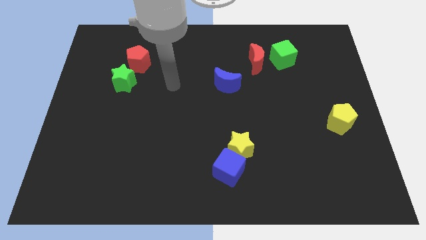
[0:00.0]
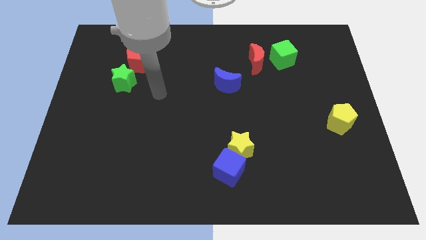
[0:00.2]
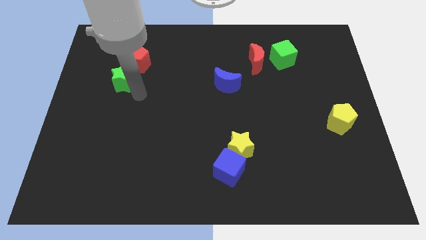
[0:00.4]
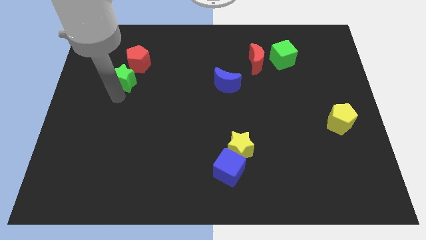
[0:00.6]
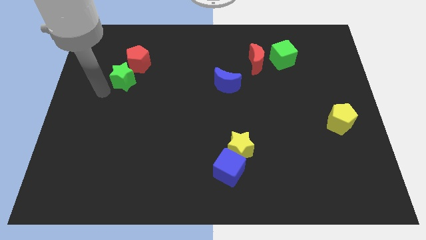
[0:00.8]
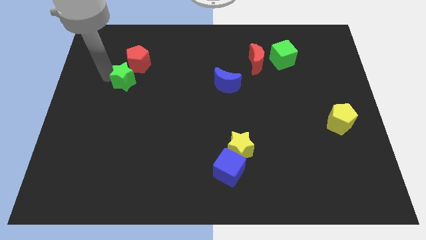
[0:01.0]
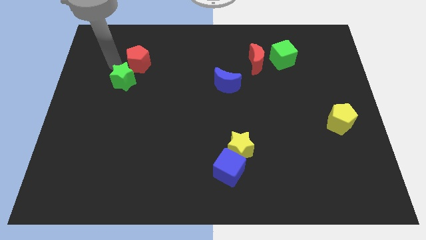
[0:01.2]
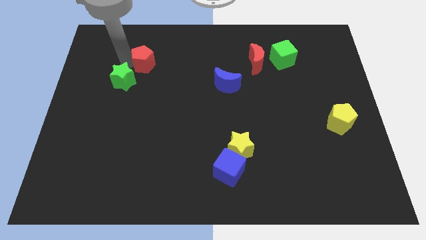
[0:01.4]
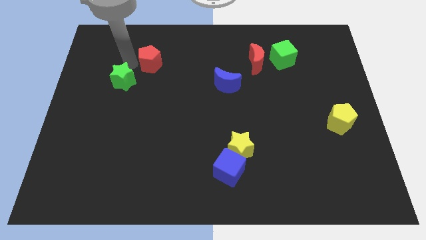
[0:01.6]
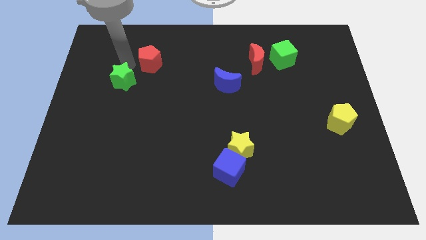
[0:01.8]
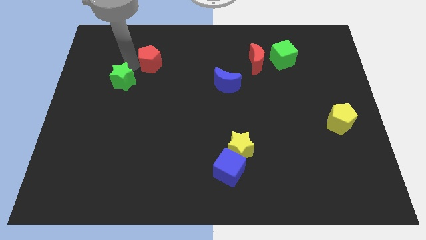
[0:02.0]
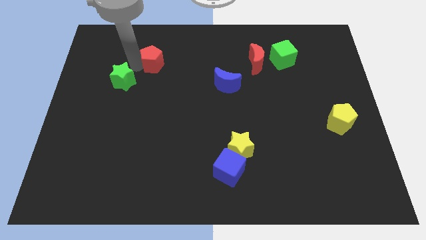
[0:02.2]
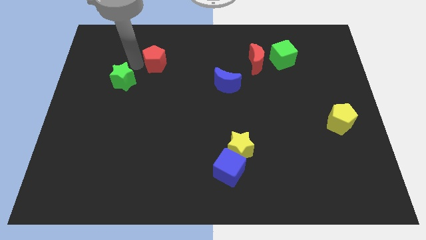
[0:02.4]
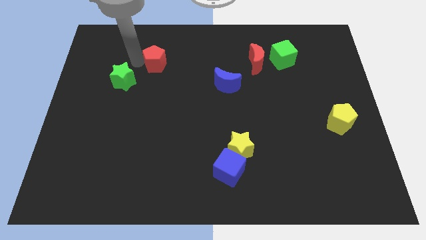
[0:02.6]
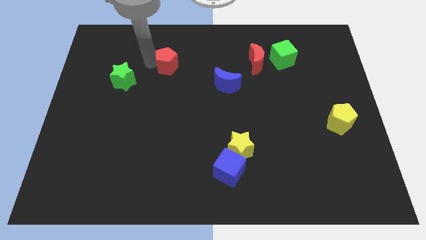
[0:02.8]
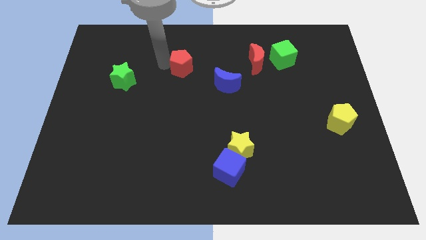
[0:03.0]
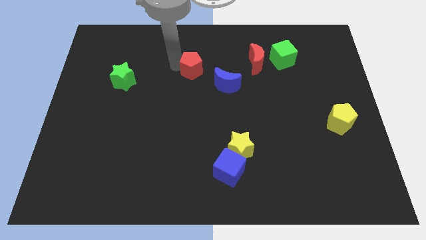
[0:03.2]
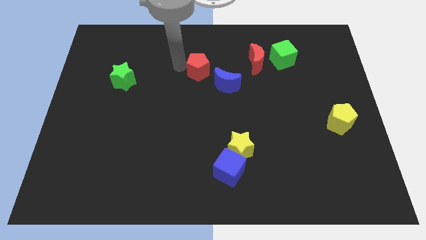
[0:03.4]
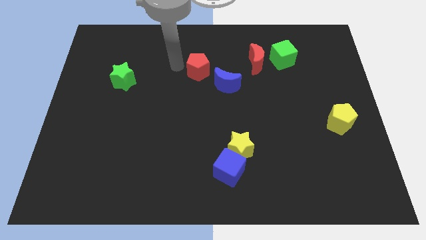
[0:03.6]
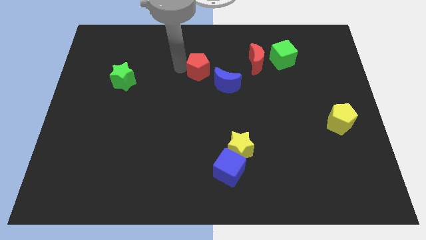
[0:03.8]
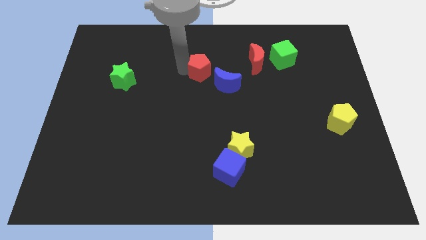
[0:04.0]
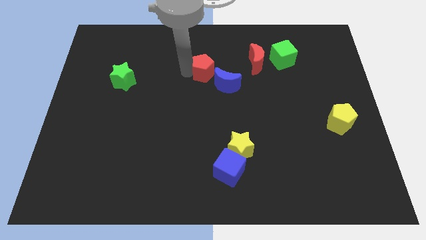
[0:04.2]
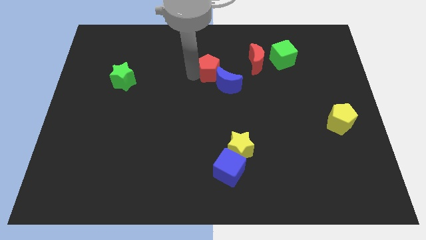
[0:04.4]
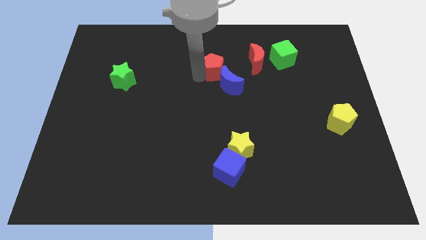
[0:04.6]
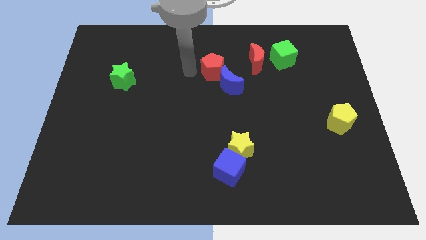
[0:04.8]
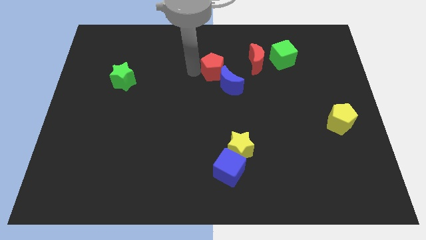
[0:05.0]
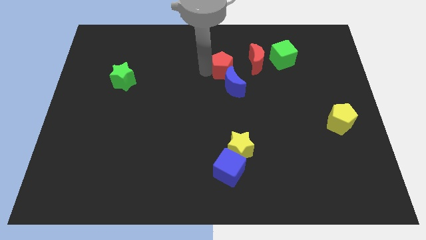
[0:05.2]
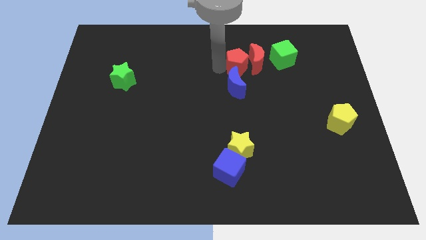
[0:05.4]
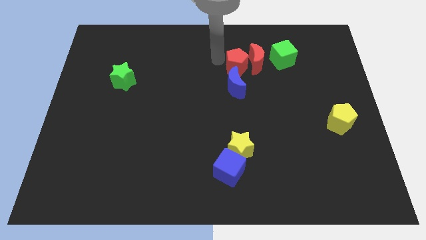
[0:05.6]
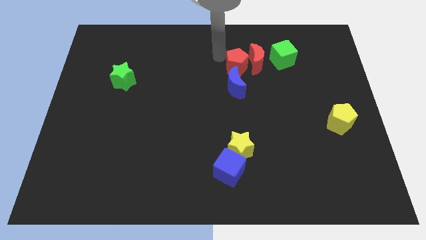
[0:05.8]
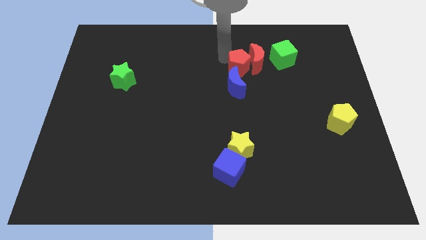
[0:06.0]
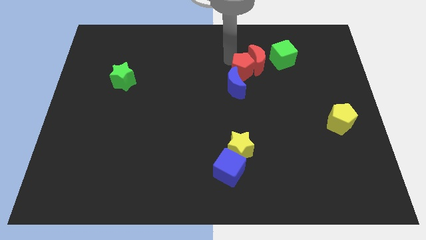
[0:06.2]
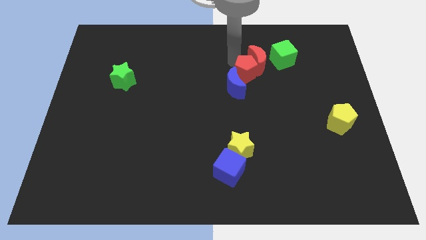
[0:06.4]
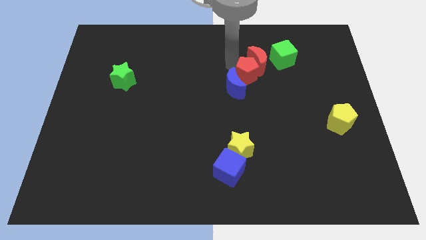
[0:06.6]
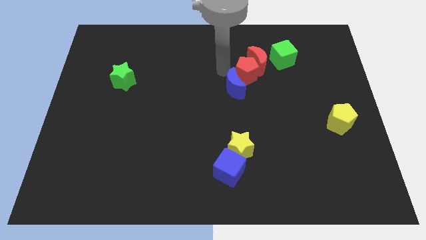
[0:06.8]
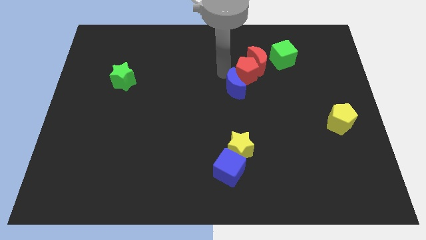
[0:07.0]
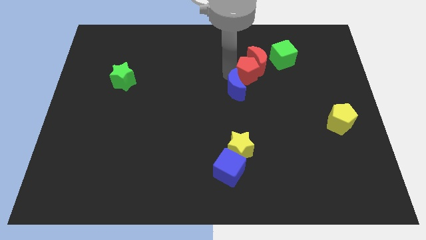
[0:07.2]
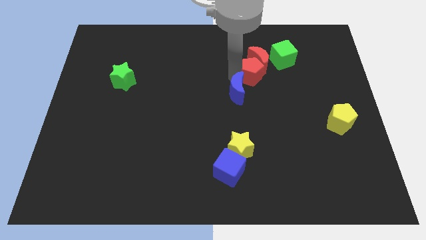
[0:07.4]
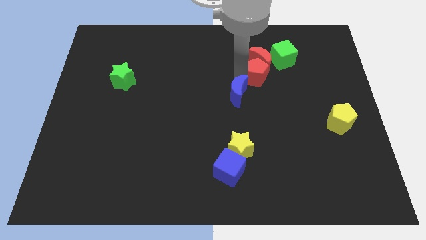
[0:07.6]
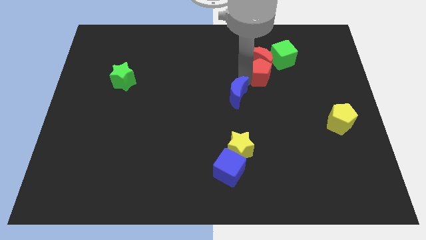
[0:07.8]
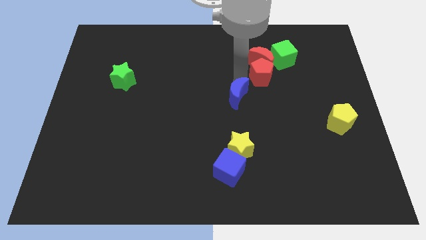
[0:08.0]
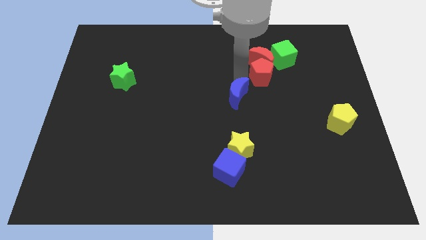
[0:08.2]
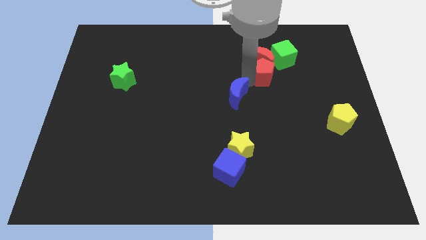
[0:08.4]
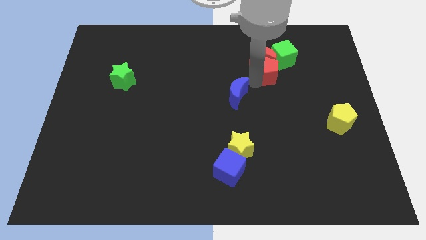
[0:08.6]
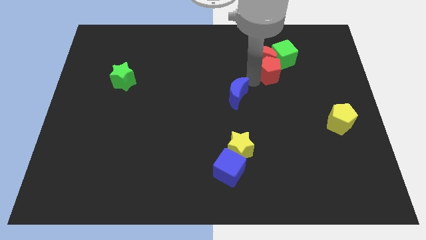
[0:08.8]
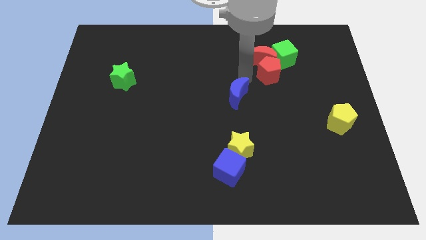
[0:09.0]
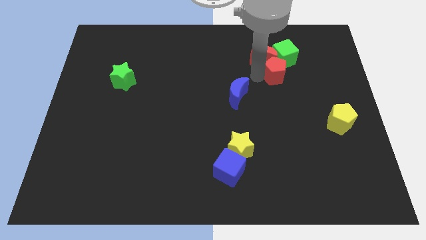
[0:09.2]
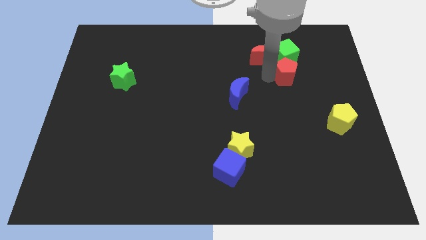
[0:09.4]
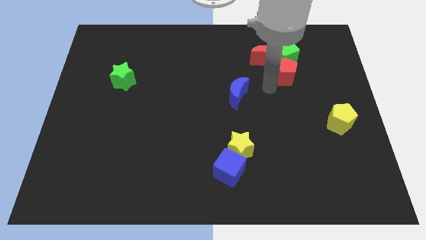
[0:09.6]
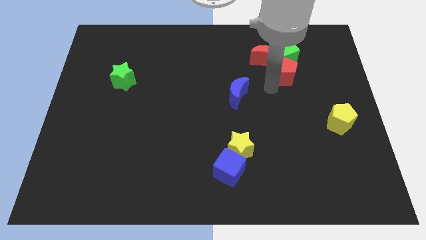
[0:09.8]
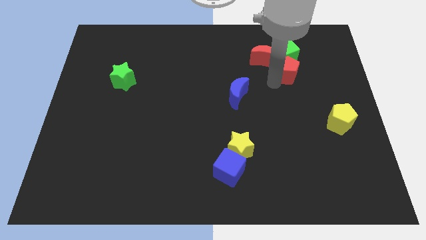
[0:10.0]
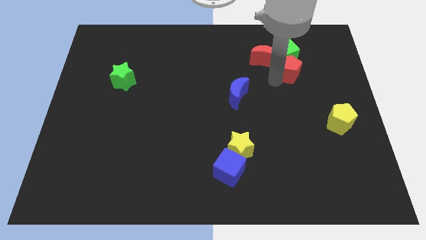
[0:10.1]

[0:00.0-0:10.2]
move the red pentagon just right of the red moon

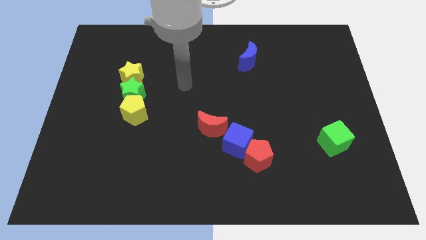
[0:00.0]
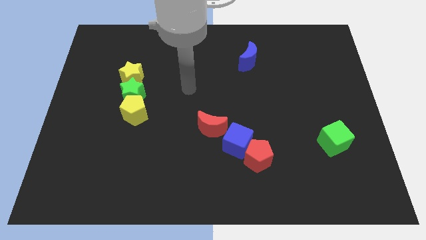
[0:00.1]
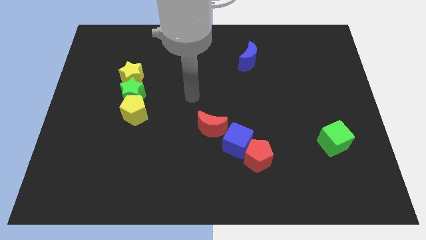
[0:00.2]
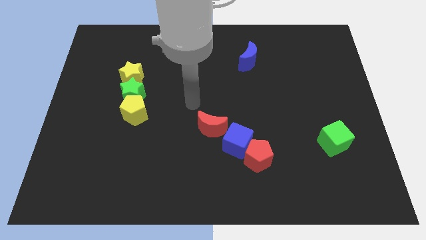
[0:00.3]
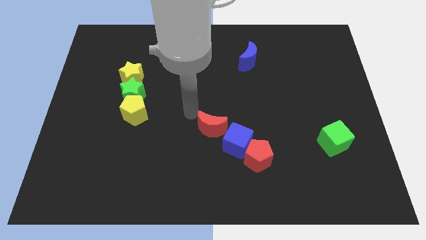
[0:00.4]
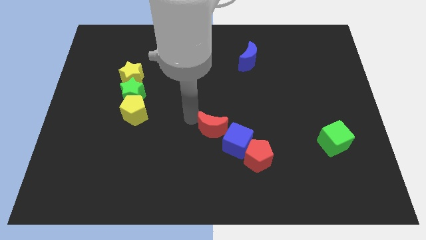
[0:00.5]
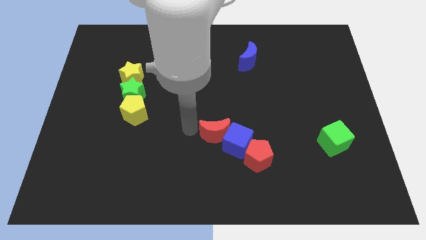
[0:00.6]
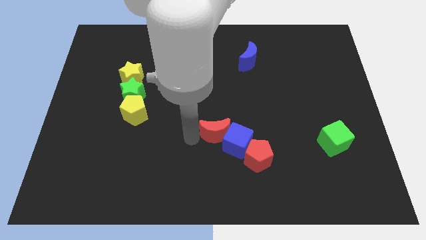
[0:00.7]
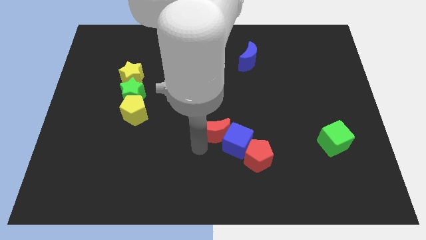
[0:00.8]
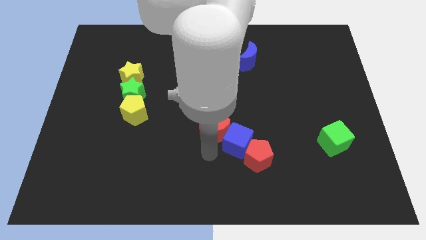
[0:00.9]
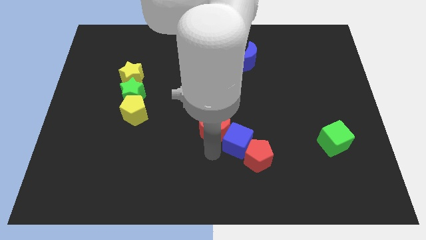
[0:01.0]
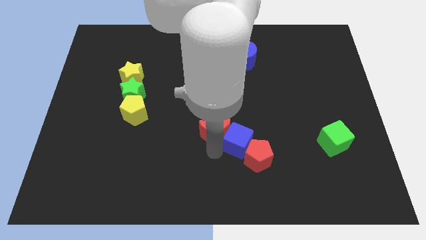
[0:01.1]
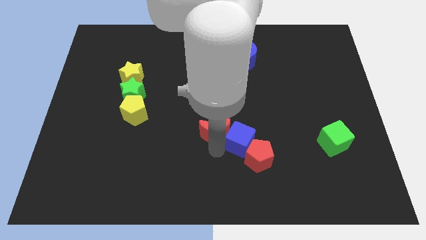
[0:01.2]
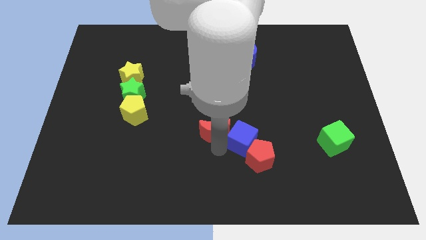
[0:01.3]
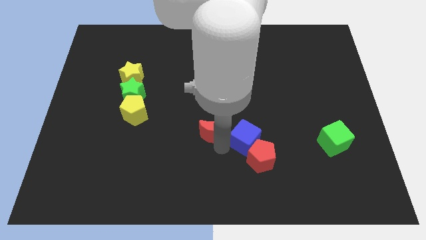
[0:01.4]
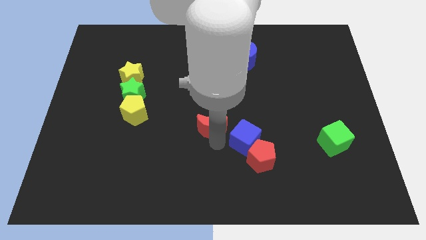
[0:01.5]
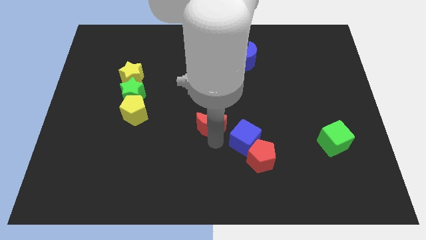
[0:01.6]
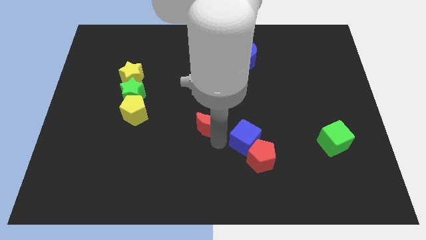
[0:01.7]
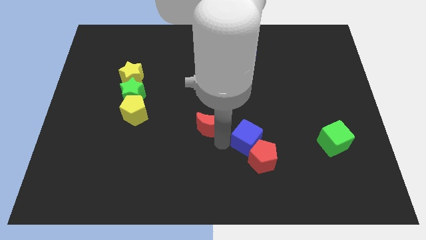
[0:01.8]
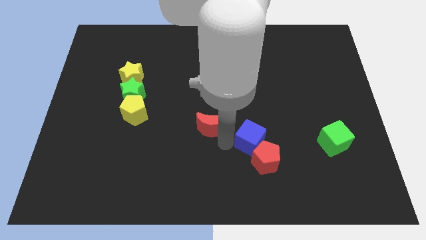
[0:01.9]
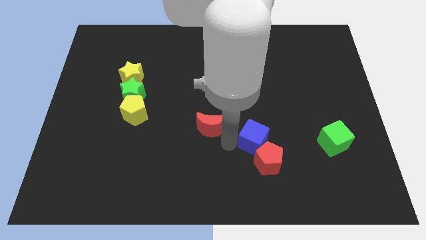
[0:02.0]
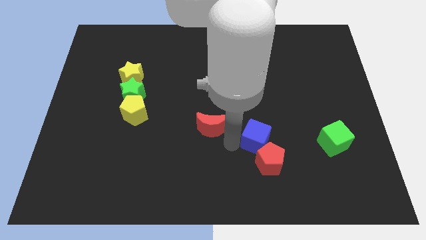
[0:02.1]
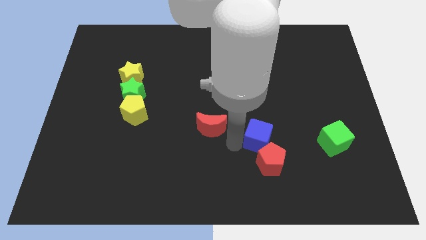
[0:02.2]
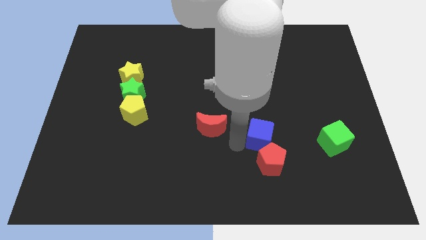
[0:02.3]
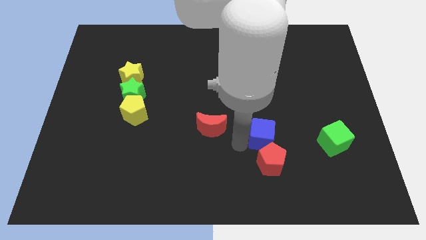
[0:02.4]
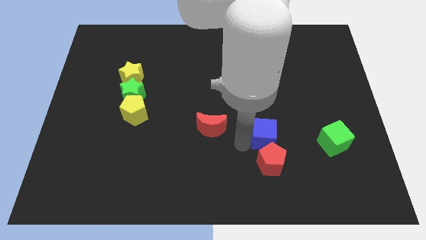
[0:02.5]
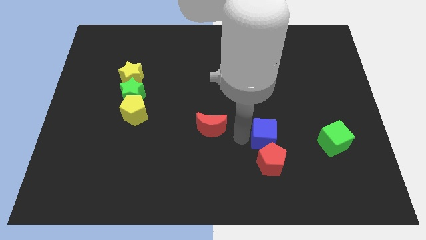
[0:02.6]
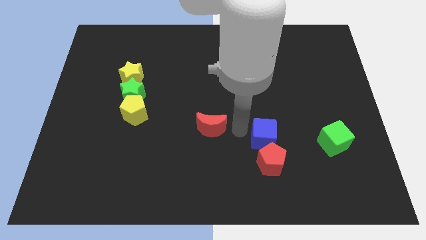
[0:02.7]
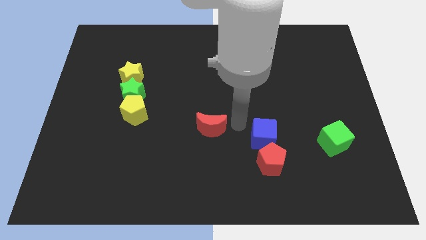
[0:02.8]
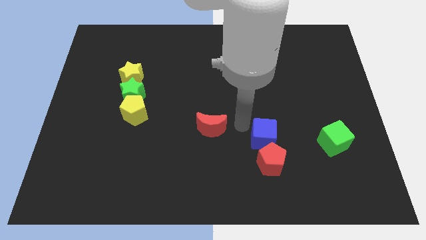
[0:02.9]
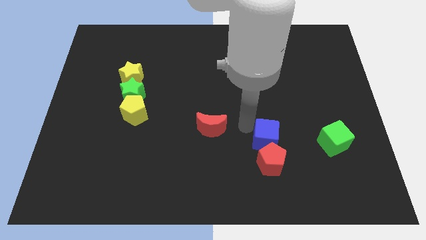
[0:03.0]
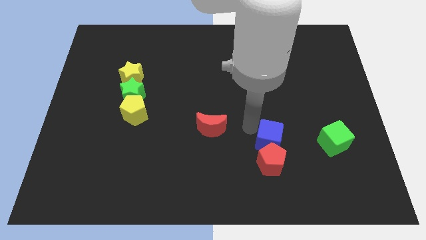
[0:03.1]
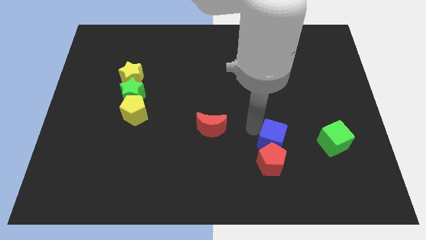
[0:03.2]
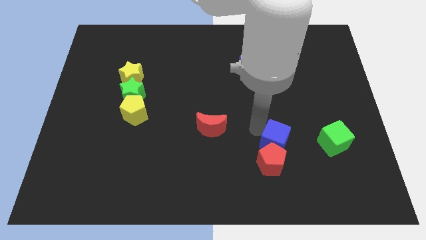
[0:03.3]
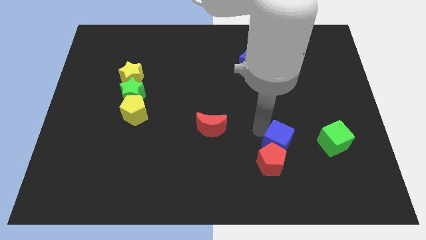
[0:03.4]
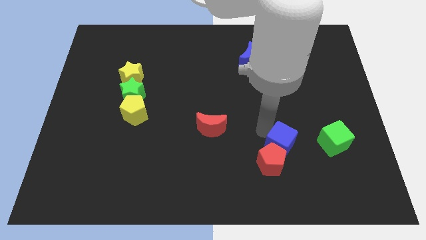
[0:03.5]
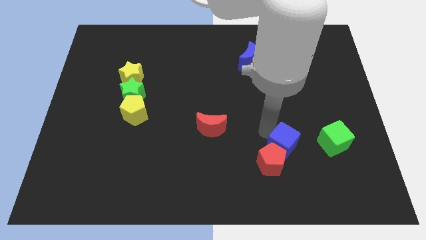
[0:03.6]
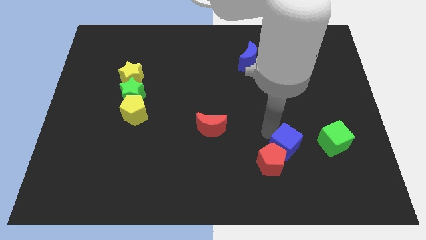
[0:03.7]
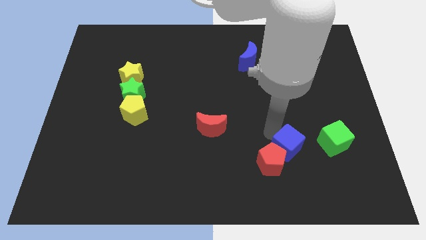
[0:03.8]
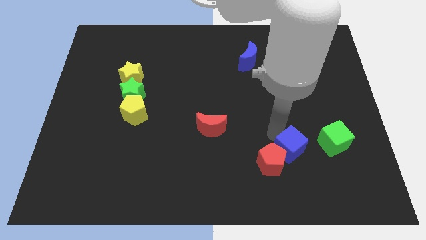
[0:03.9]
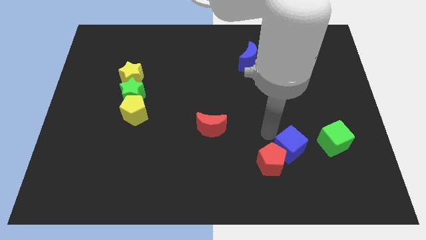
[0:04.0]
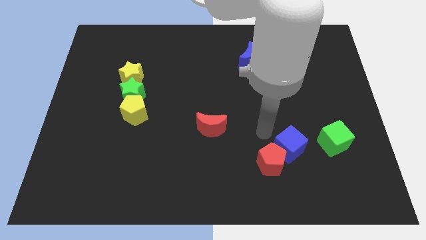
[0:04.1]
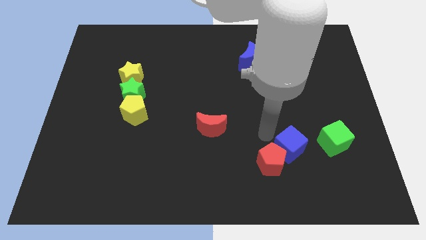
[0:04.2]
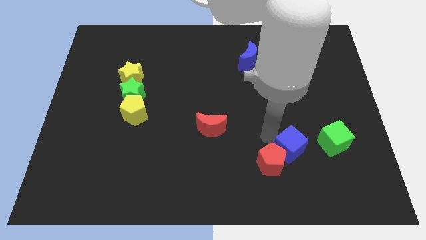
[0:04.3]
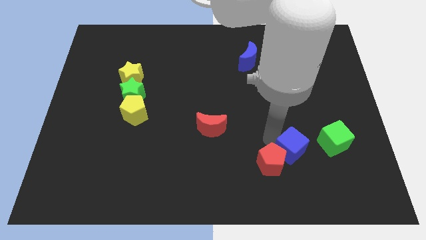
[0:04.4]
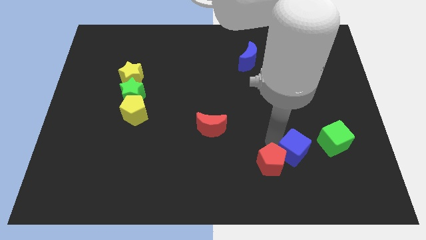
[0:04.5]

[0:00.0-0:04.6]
slide the blue cube diagonally down and to the left of the green cube
